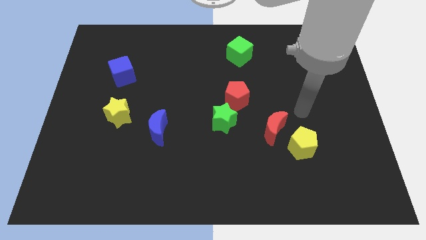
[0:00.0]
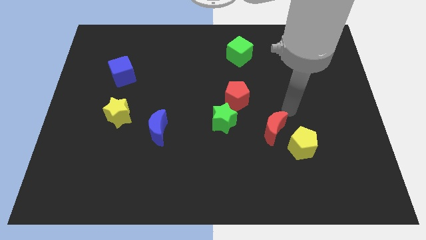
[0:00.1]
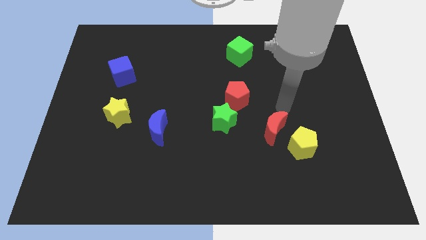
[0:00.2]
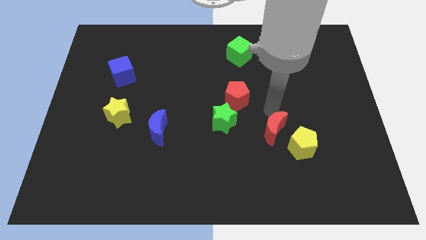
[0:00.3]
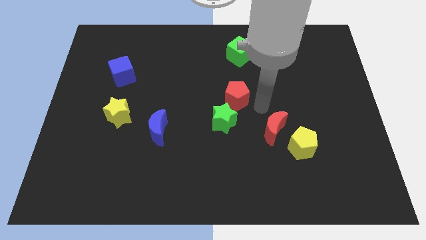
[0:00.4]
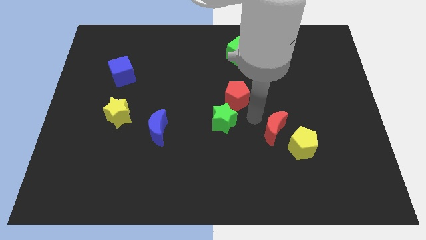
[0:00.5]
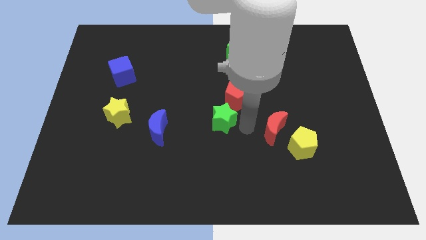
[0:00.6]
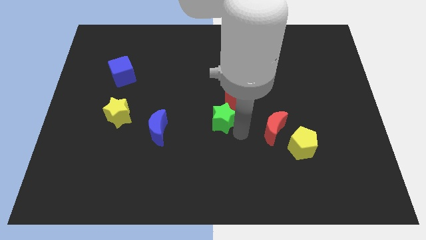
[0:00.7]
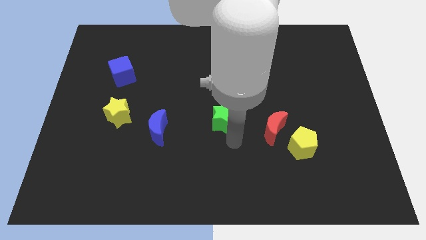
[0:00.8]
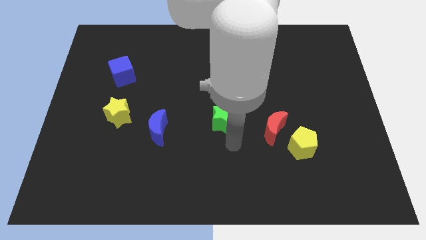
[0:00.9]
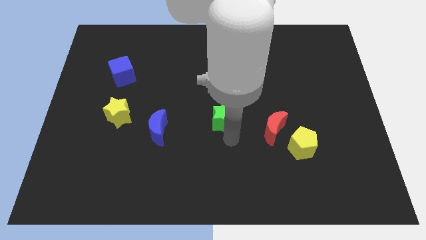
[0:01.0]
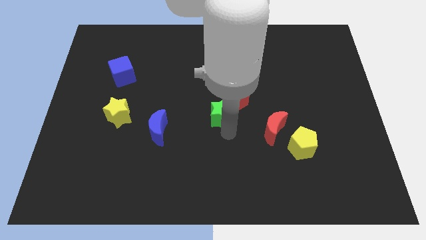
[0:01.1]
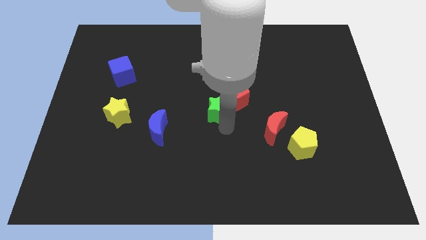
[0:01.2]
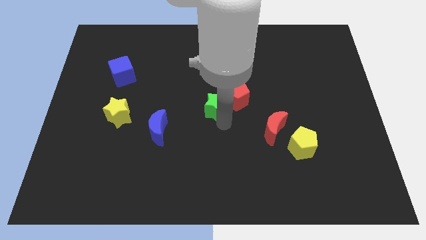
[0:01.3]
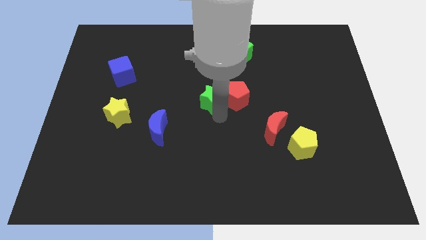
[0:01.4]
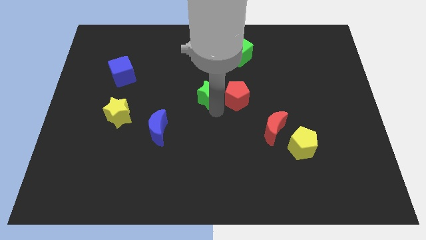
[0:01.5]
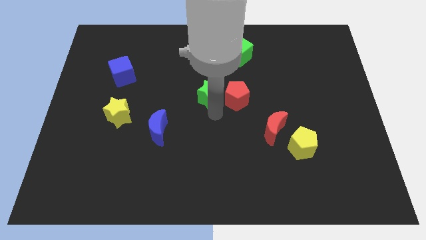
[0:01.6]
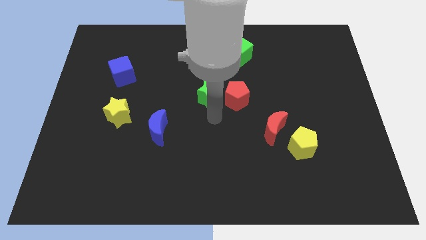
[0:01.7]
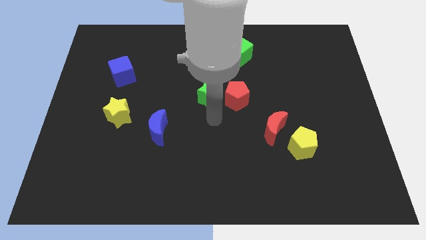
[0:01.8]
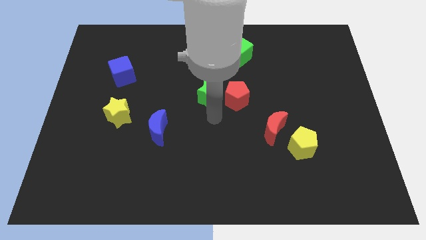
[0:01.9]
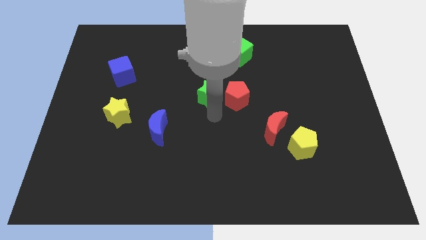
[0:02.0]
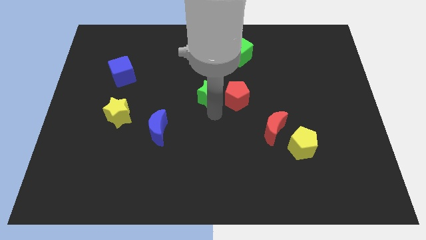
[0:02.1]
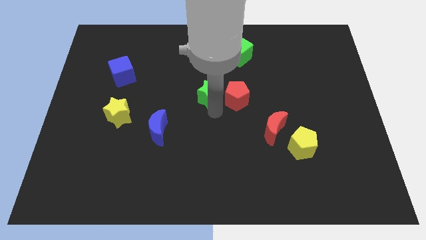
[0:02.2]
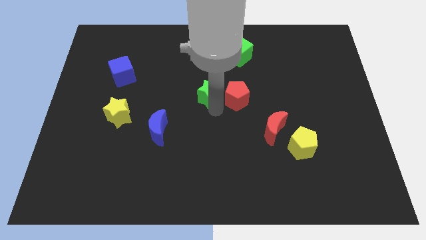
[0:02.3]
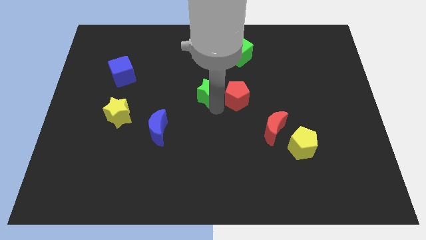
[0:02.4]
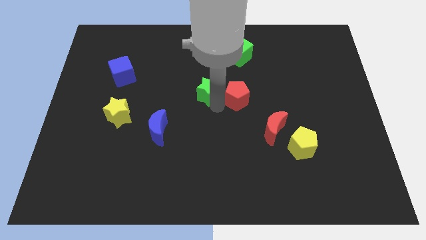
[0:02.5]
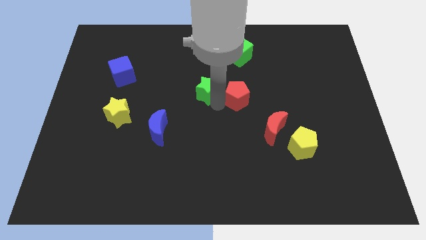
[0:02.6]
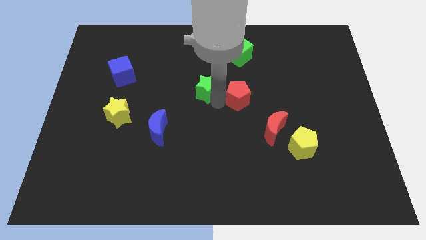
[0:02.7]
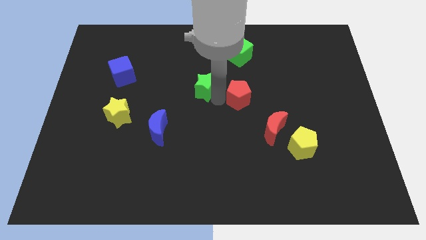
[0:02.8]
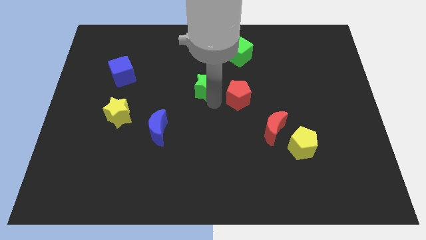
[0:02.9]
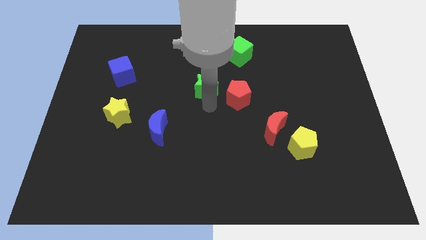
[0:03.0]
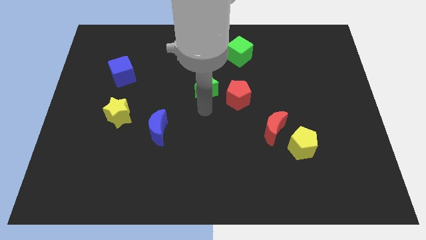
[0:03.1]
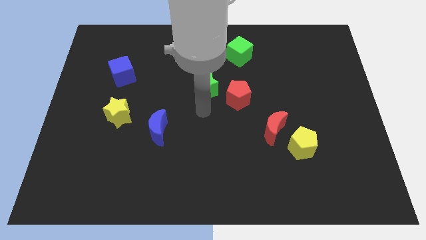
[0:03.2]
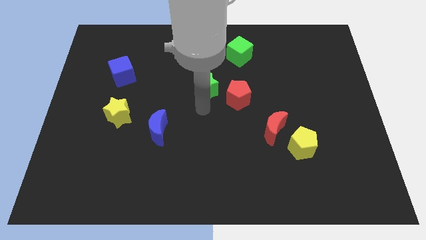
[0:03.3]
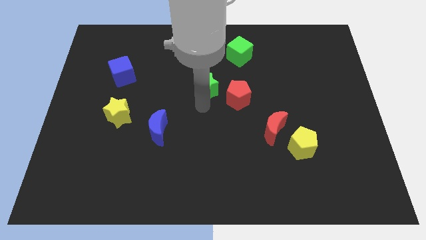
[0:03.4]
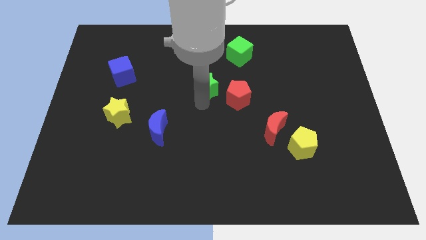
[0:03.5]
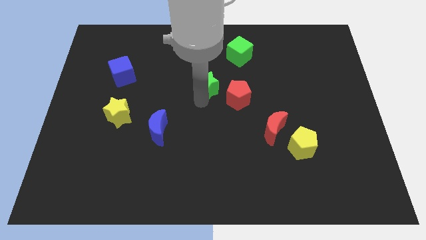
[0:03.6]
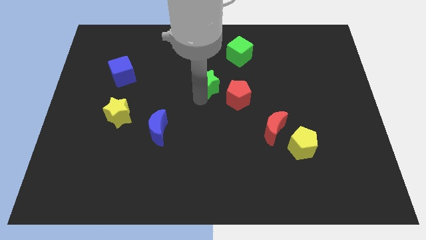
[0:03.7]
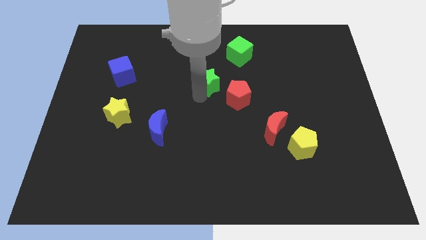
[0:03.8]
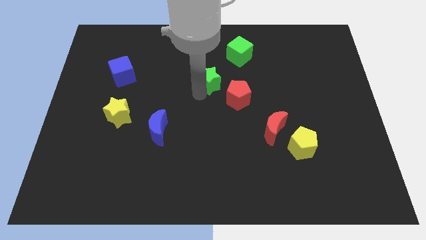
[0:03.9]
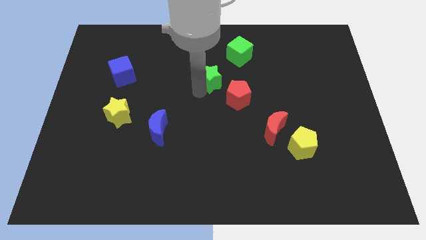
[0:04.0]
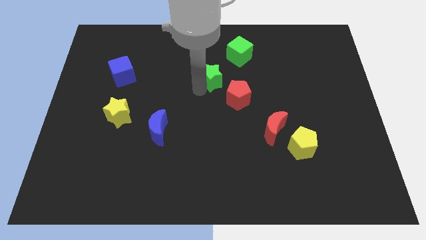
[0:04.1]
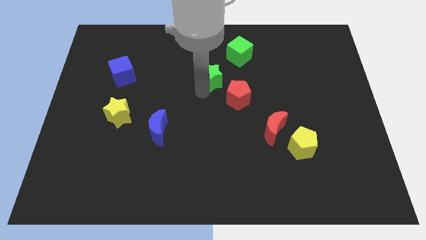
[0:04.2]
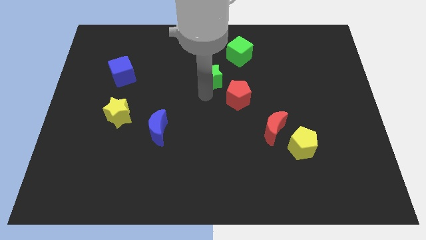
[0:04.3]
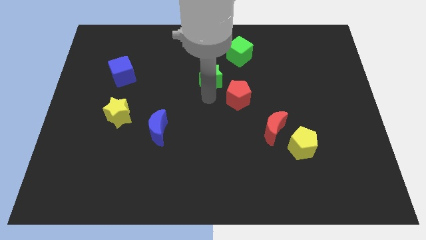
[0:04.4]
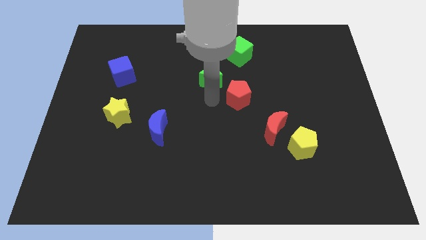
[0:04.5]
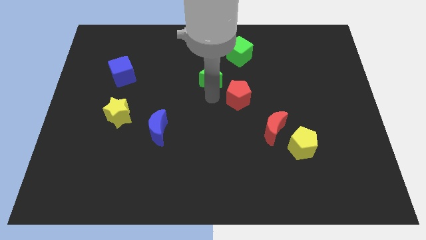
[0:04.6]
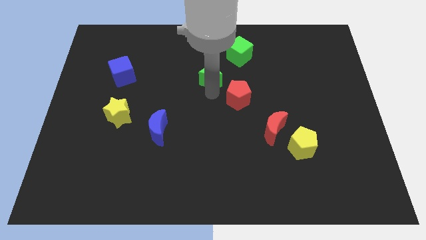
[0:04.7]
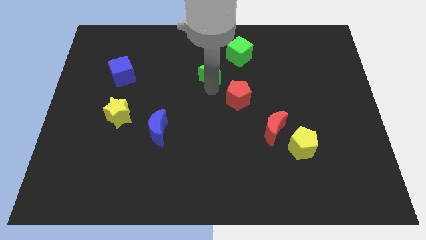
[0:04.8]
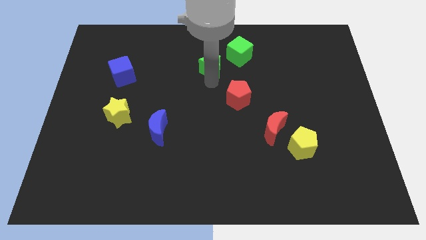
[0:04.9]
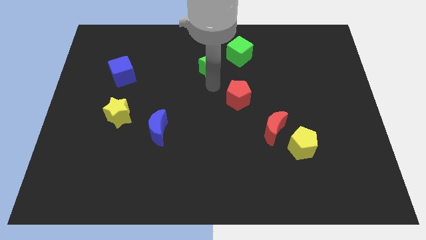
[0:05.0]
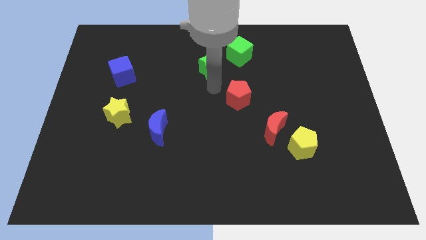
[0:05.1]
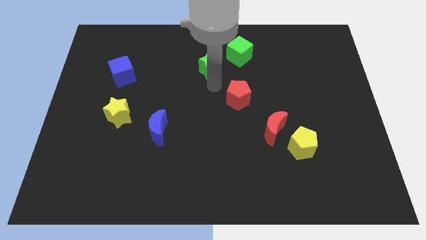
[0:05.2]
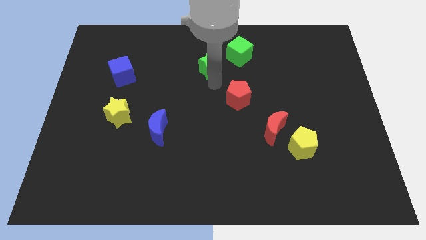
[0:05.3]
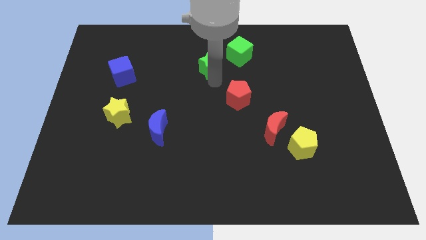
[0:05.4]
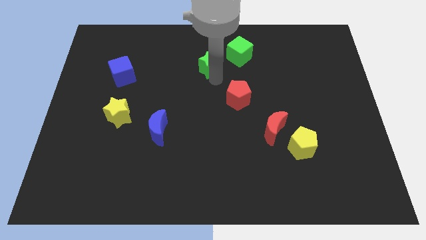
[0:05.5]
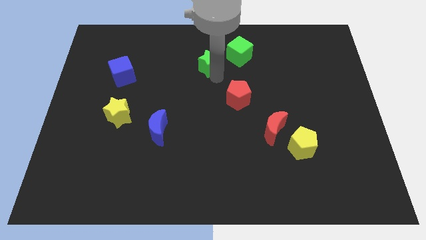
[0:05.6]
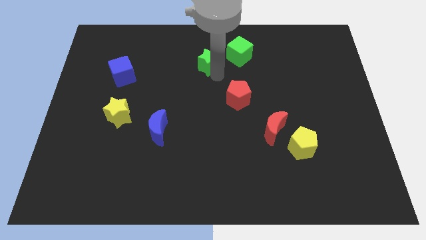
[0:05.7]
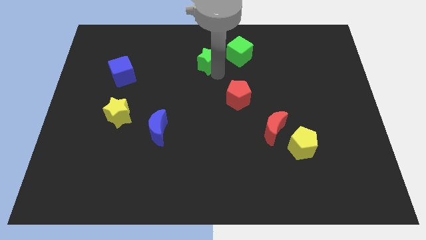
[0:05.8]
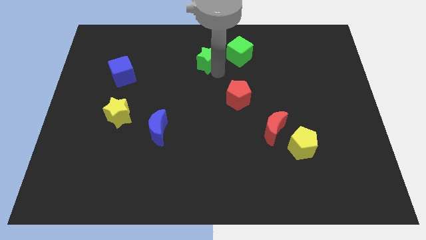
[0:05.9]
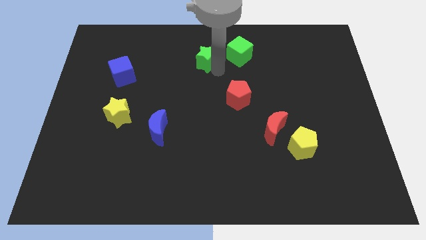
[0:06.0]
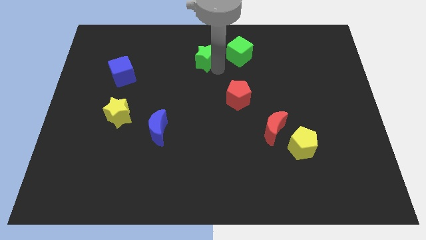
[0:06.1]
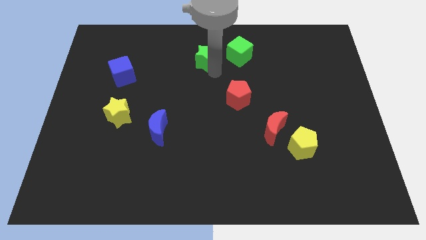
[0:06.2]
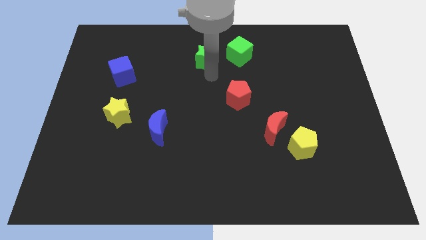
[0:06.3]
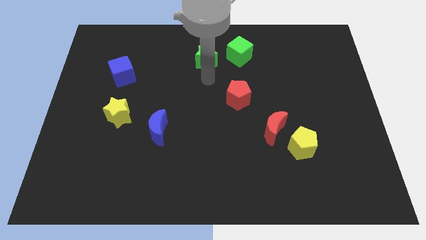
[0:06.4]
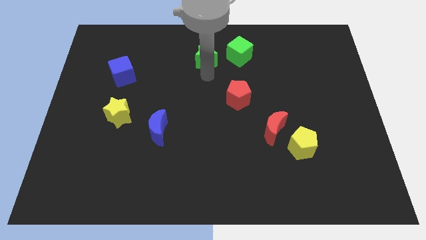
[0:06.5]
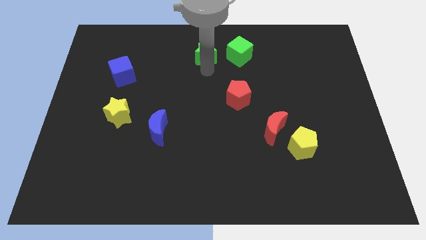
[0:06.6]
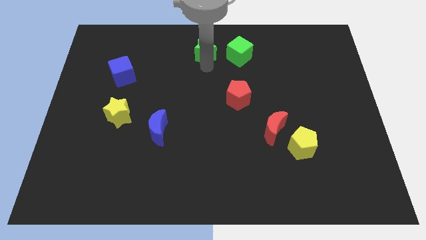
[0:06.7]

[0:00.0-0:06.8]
slide the green star to the towards your base
